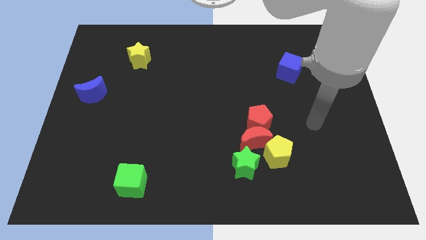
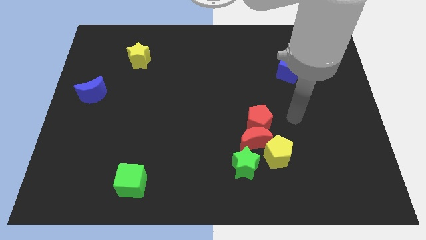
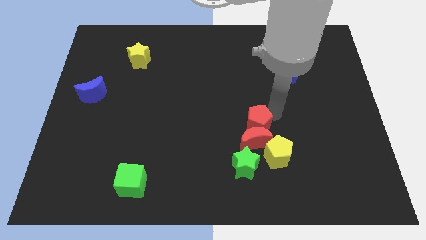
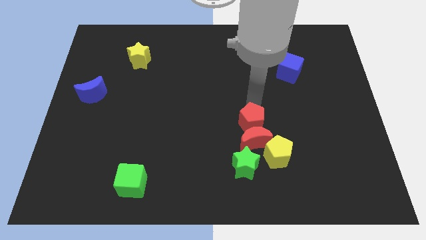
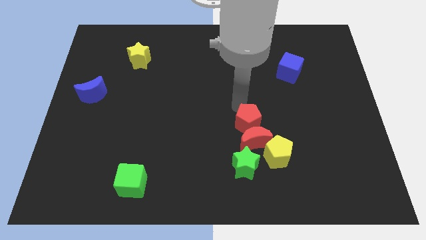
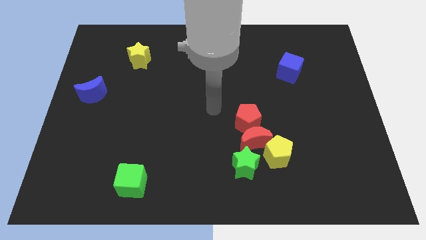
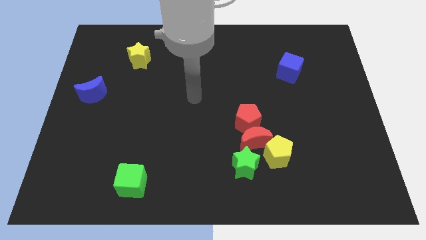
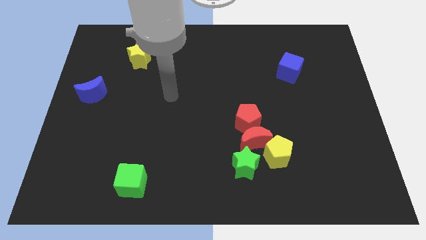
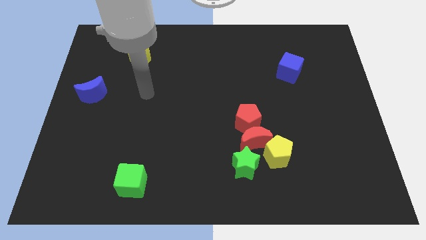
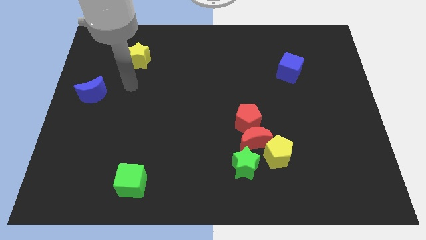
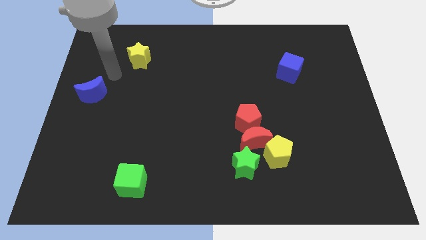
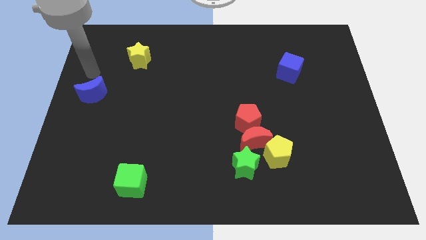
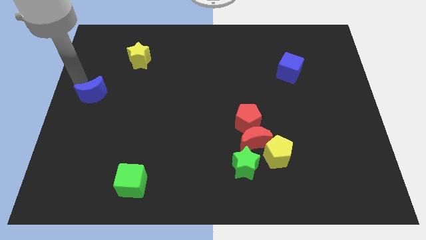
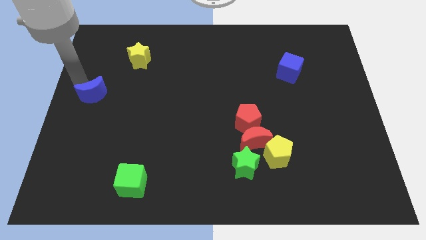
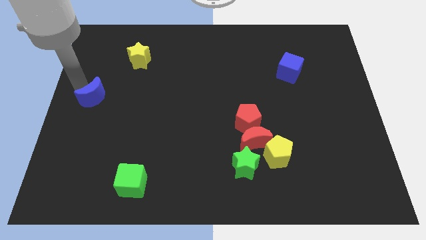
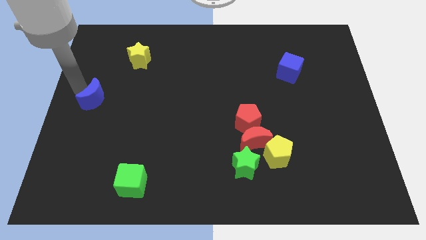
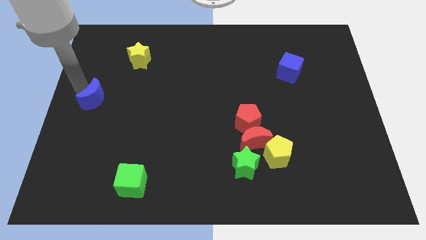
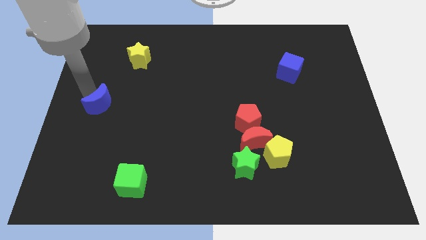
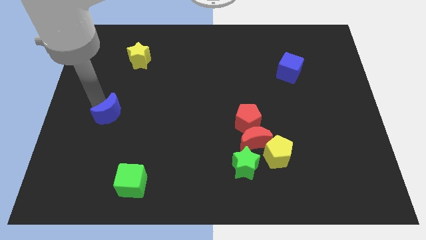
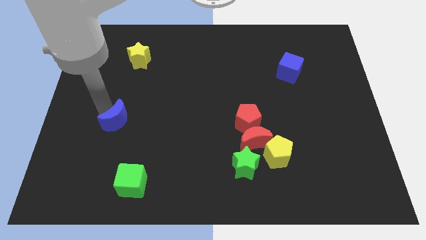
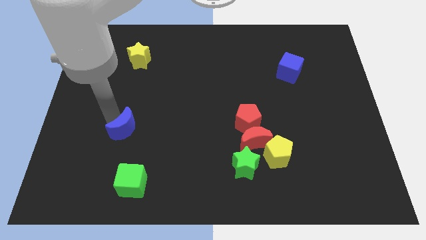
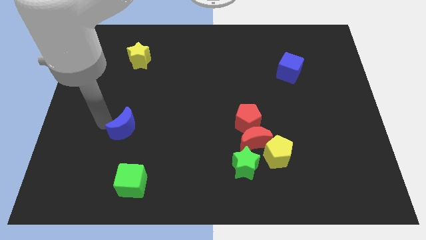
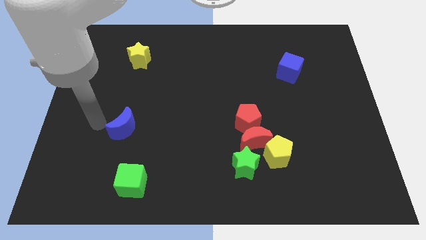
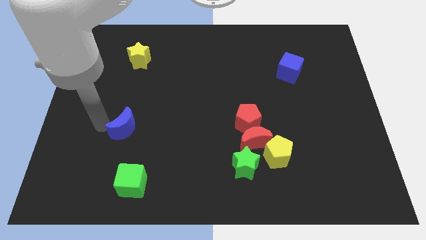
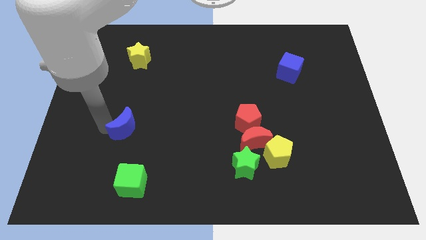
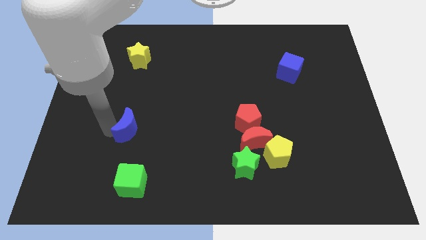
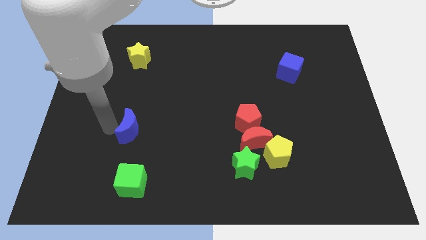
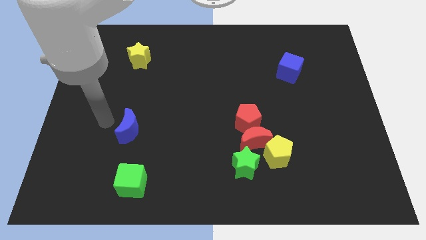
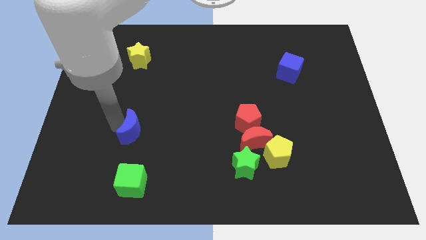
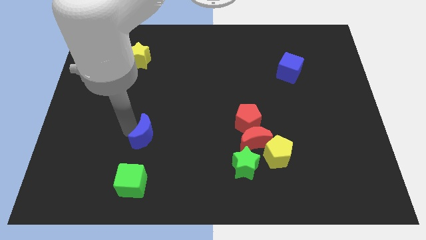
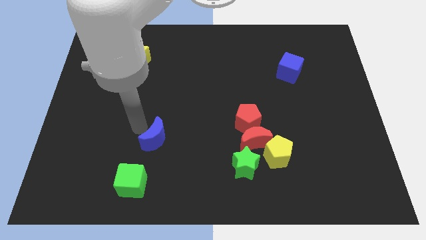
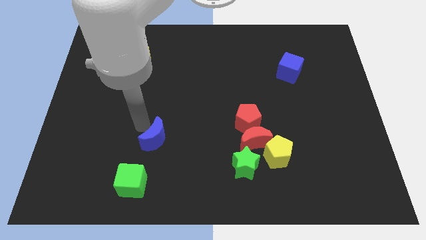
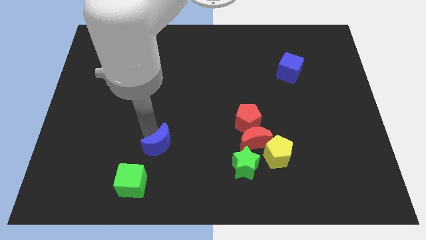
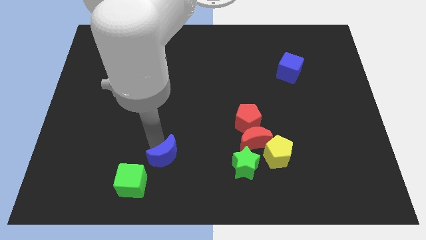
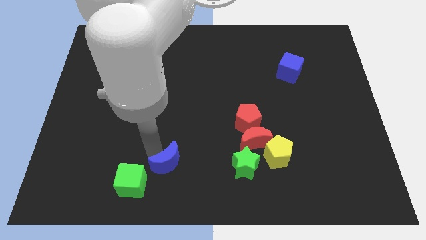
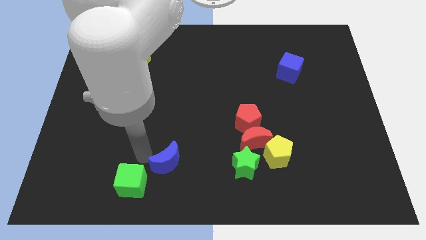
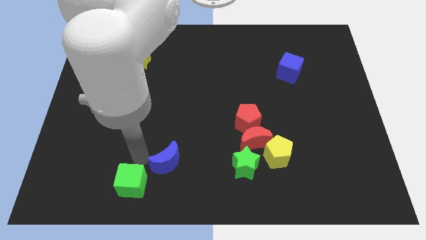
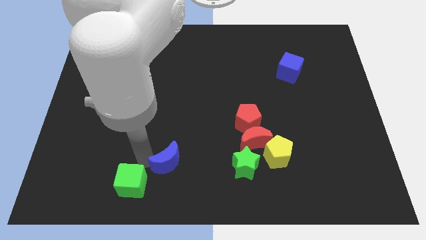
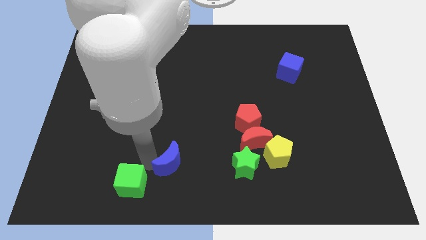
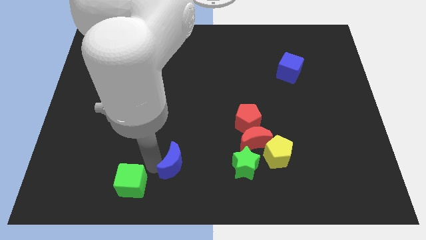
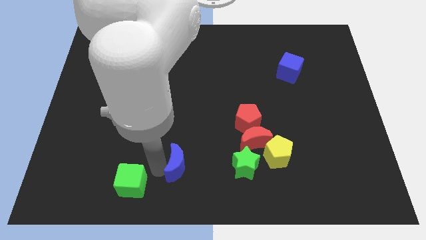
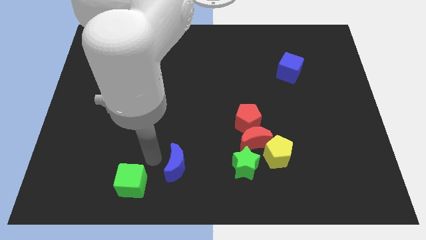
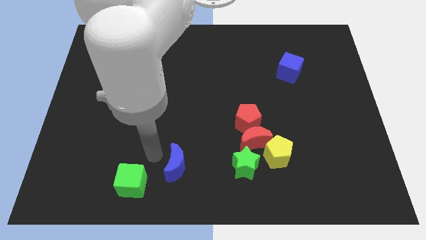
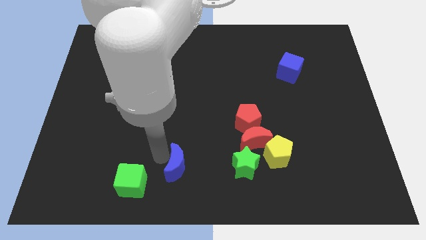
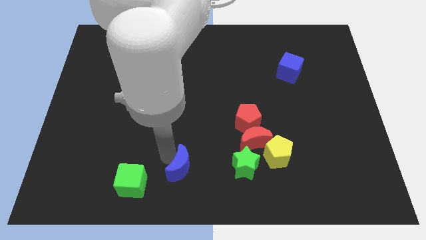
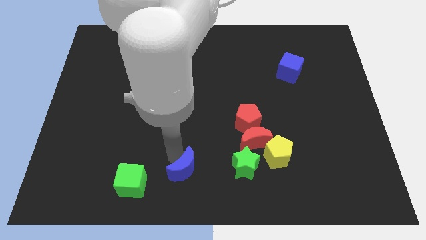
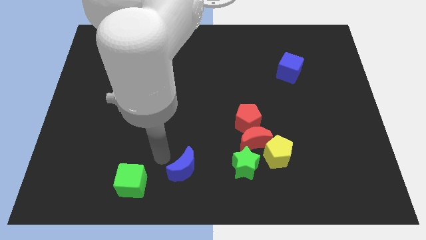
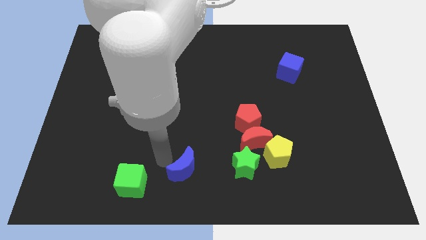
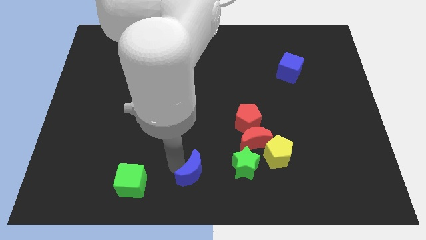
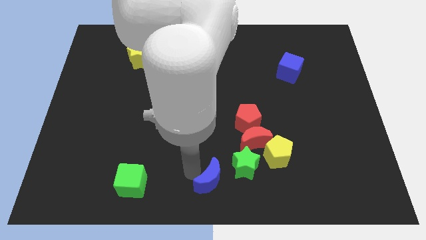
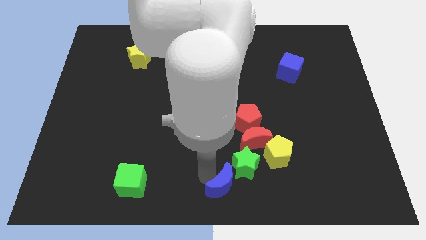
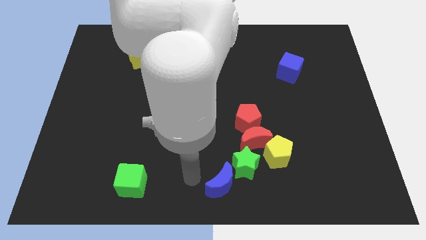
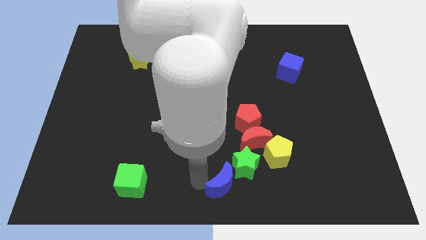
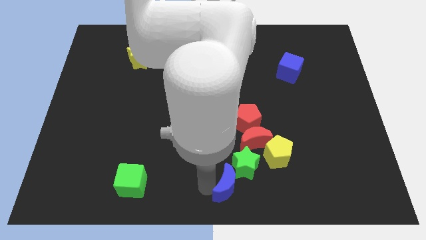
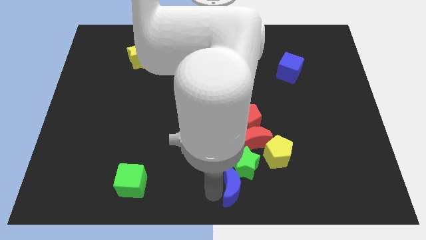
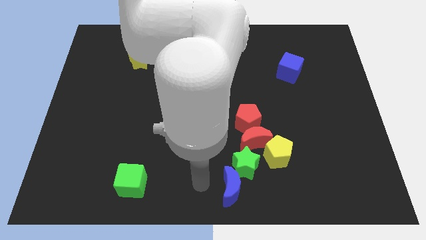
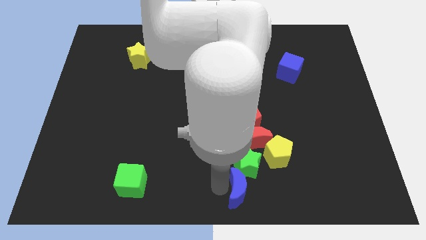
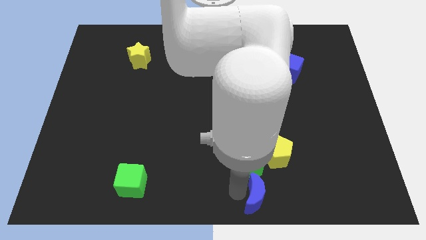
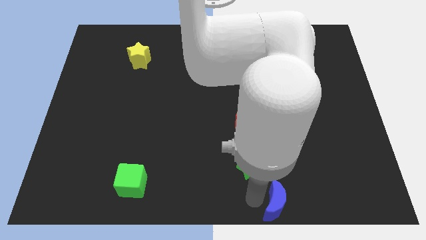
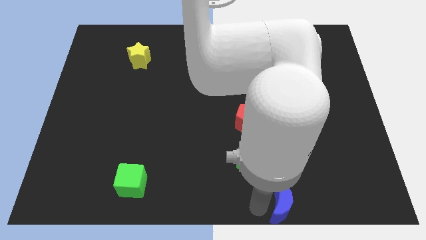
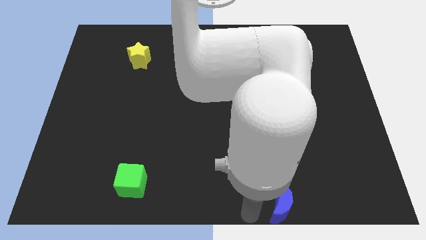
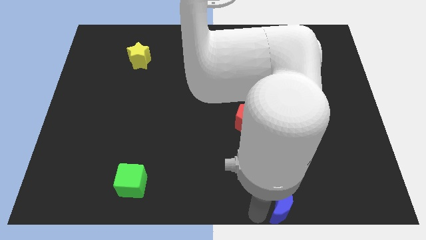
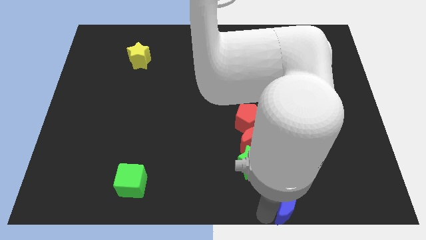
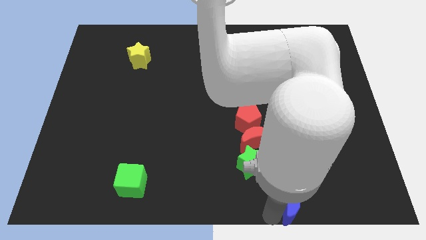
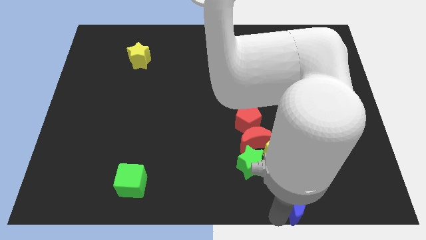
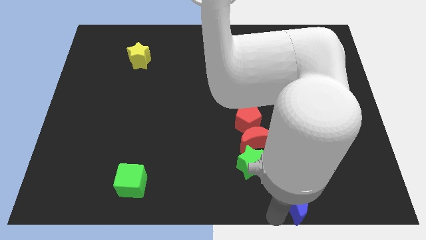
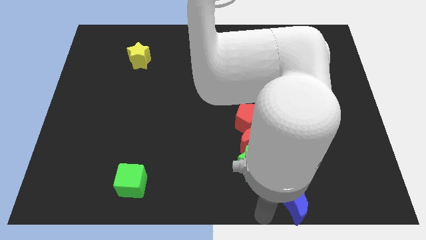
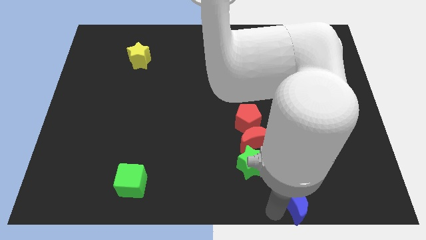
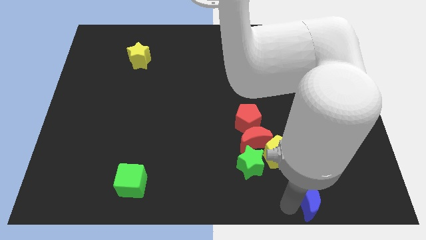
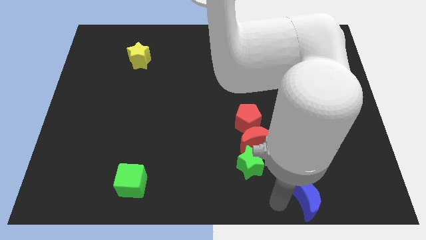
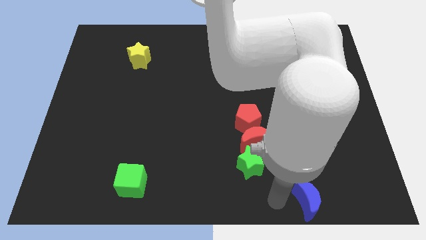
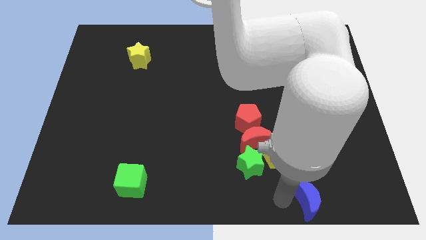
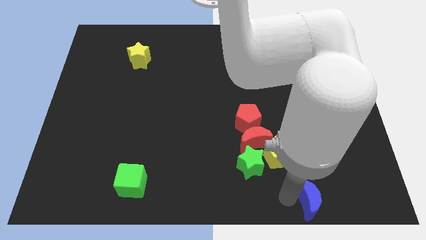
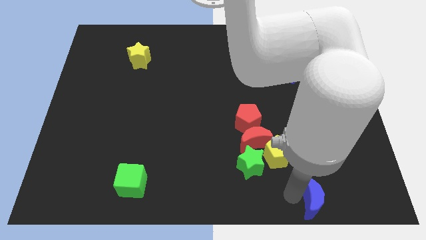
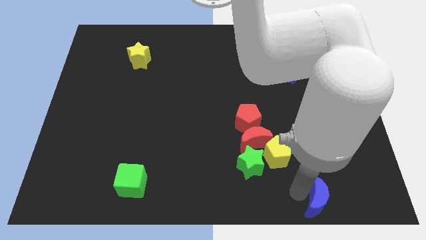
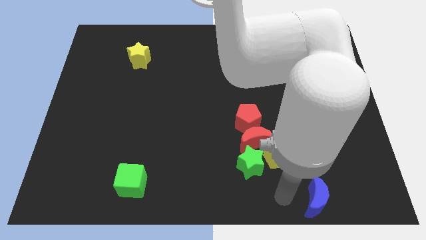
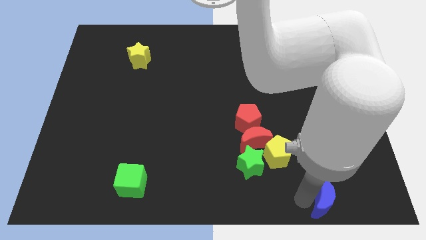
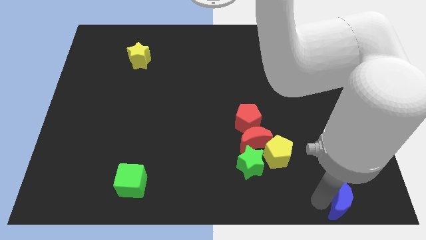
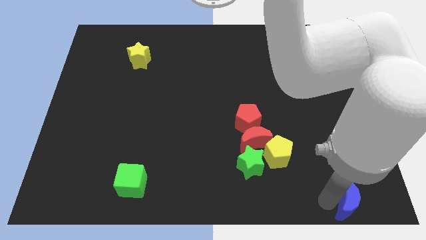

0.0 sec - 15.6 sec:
slide the blue moon to the bottom right of the board
